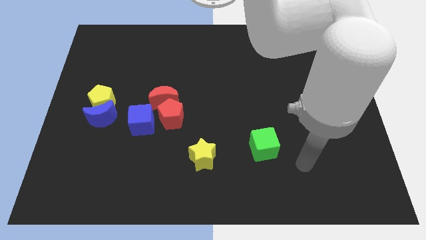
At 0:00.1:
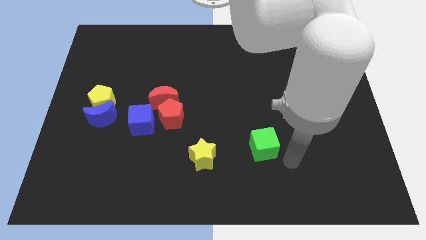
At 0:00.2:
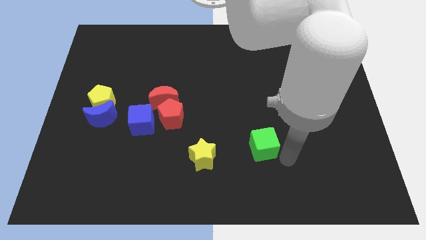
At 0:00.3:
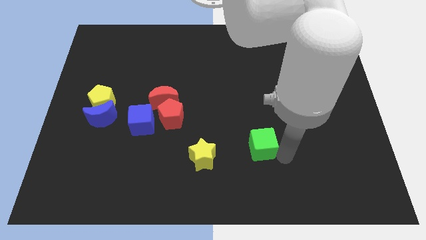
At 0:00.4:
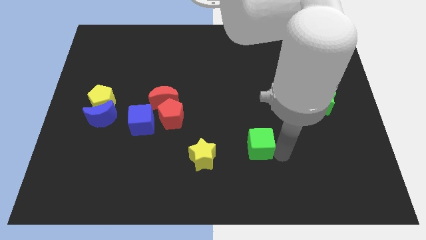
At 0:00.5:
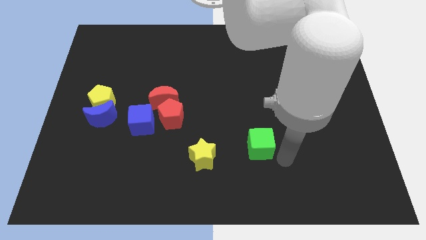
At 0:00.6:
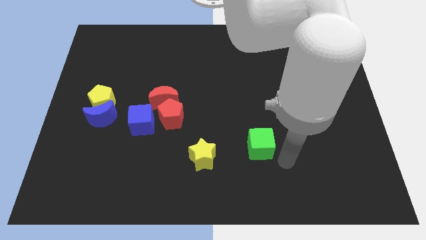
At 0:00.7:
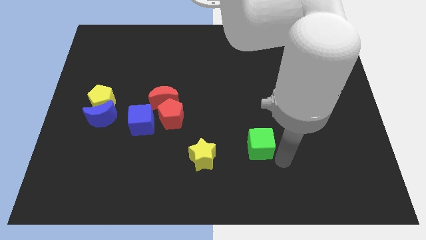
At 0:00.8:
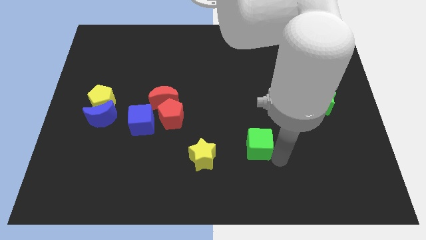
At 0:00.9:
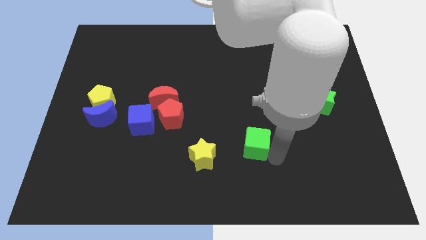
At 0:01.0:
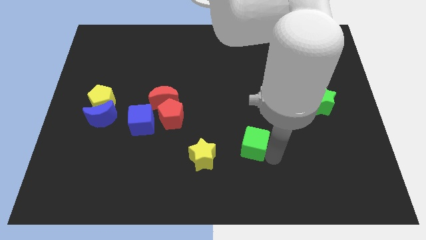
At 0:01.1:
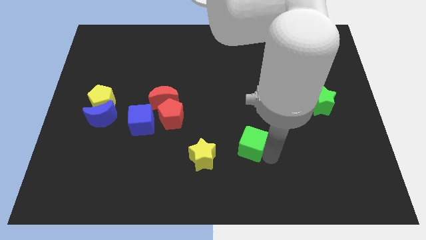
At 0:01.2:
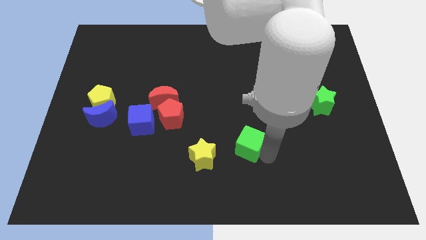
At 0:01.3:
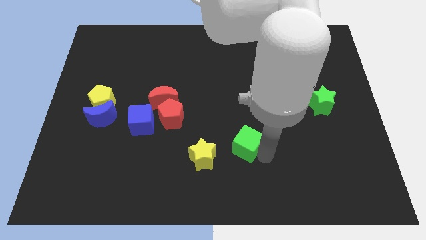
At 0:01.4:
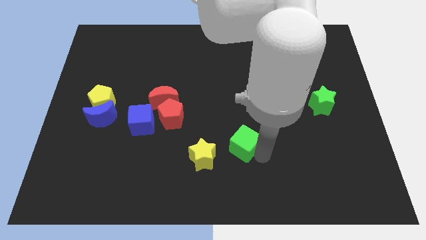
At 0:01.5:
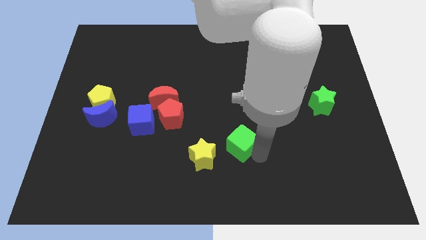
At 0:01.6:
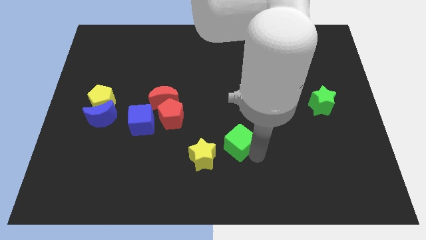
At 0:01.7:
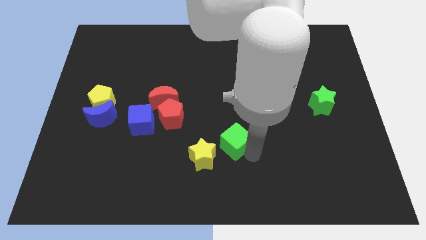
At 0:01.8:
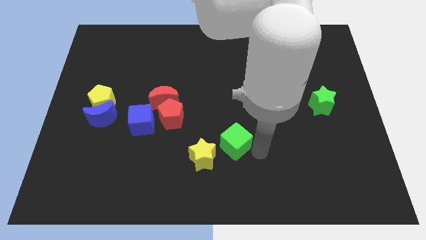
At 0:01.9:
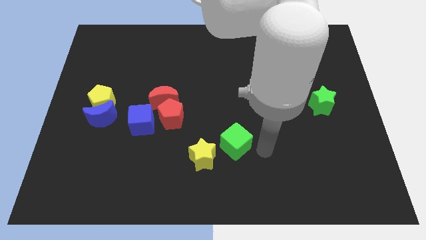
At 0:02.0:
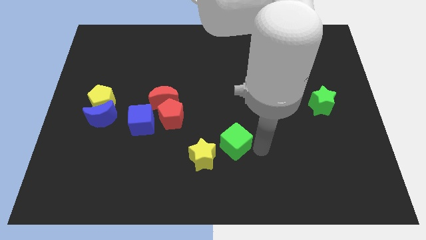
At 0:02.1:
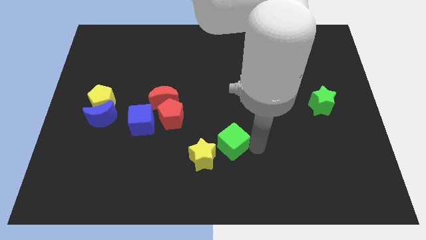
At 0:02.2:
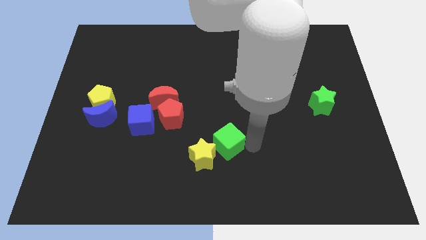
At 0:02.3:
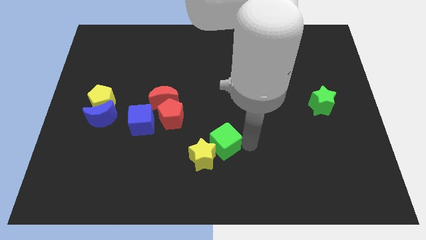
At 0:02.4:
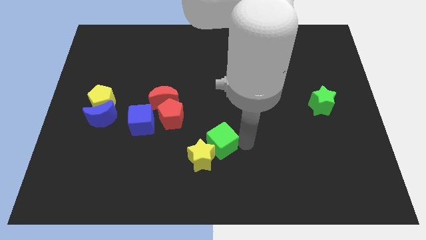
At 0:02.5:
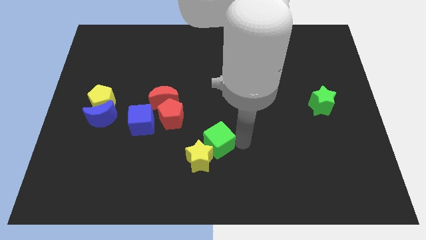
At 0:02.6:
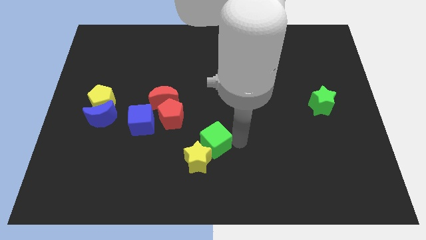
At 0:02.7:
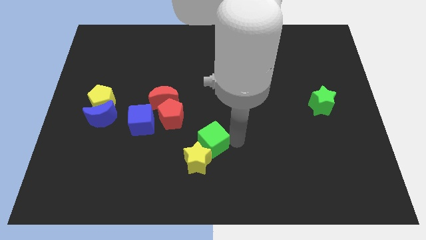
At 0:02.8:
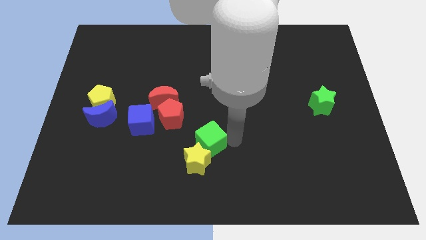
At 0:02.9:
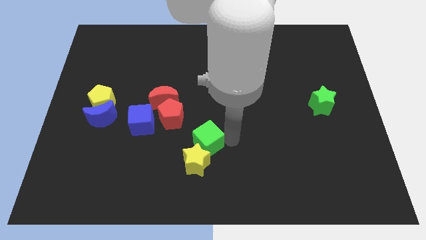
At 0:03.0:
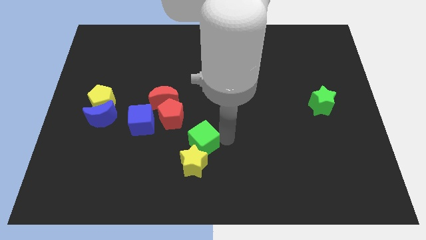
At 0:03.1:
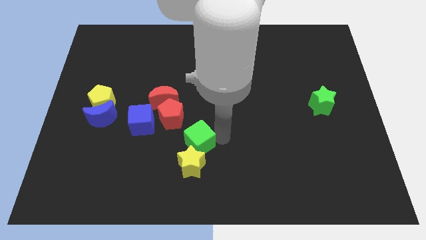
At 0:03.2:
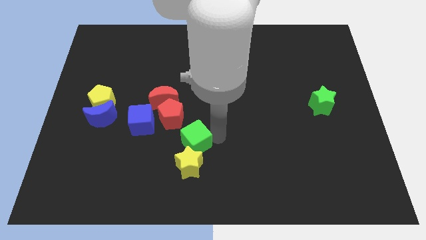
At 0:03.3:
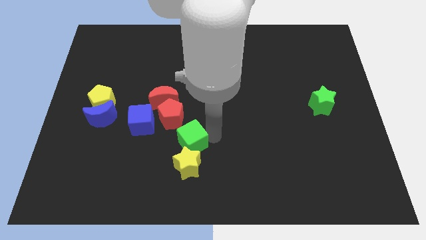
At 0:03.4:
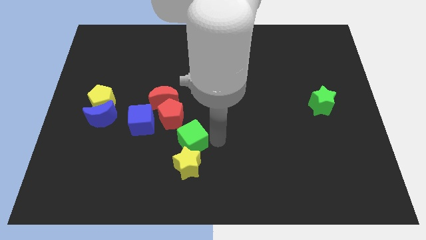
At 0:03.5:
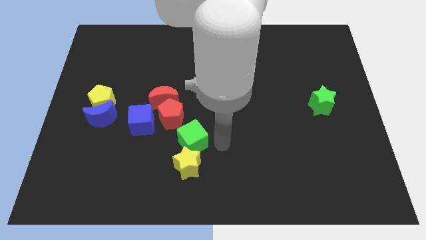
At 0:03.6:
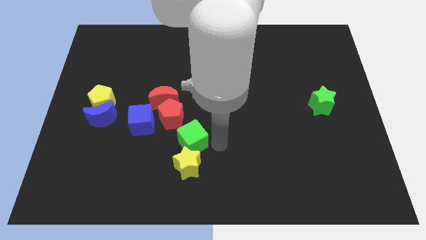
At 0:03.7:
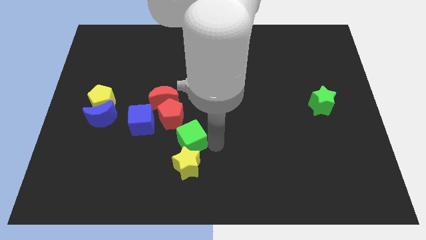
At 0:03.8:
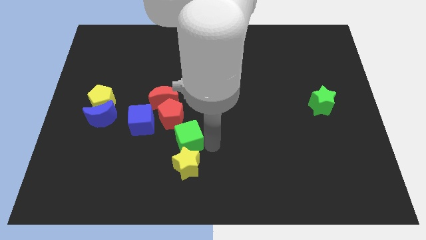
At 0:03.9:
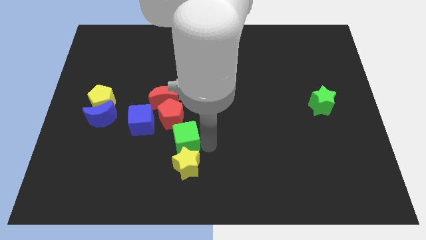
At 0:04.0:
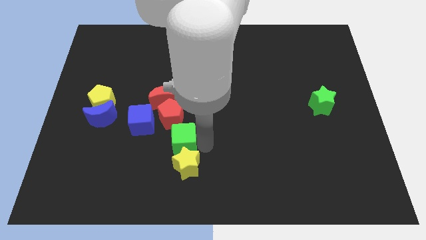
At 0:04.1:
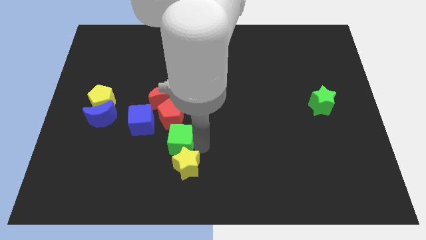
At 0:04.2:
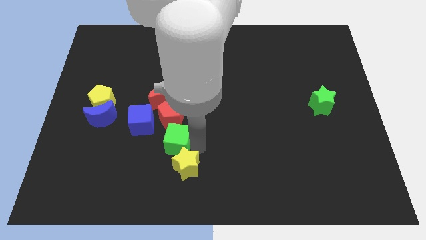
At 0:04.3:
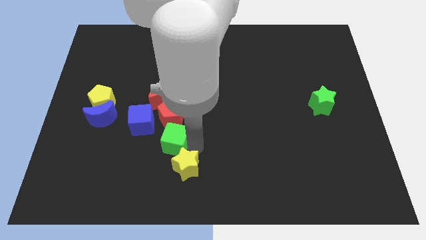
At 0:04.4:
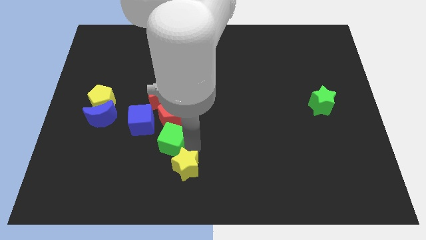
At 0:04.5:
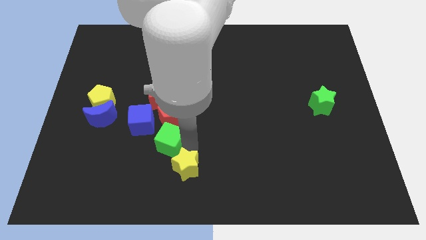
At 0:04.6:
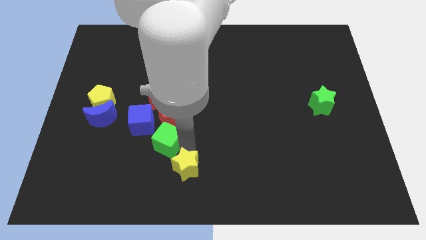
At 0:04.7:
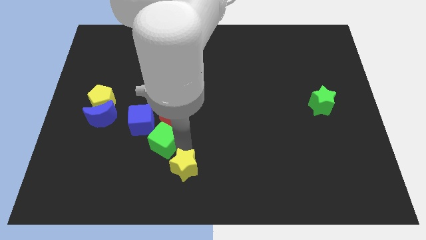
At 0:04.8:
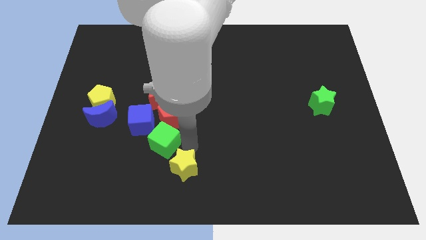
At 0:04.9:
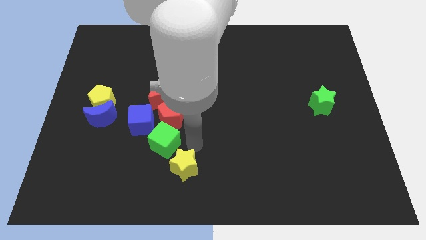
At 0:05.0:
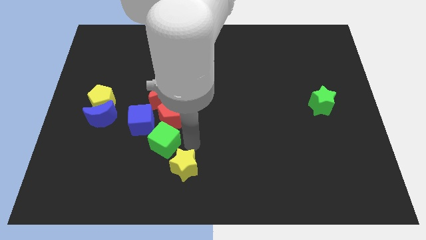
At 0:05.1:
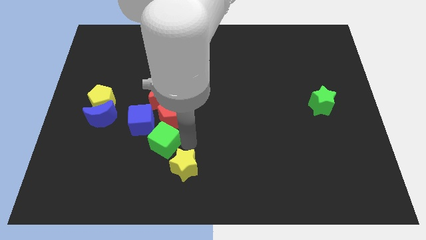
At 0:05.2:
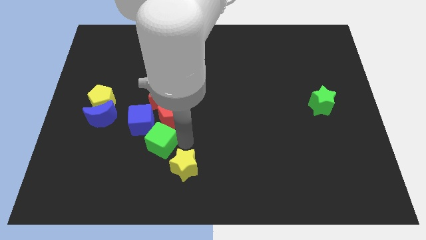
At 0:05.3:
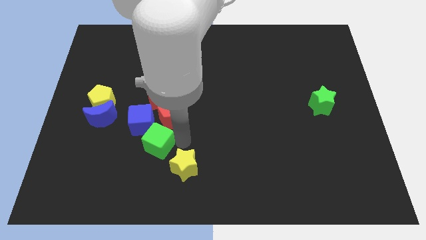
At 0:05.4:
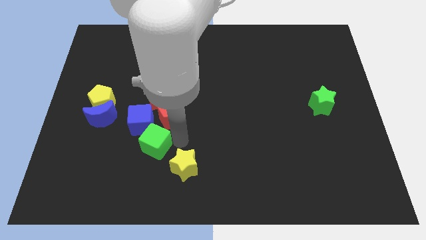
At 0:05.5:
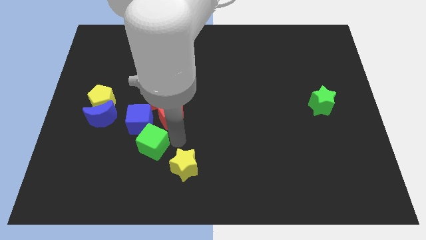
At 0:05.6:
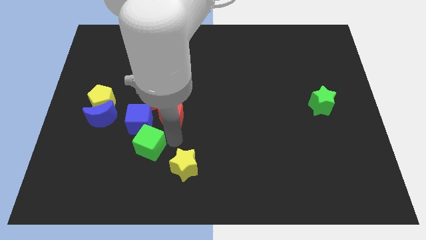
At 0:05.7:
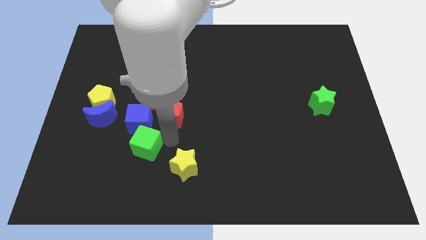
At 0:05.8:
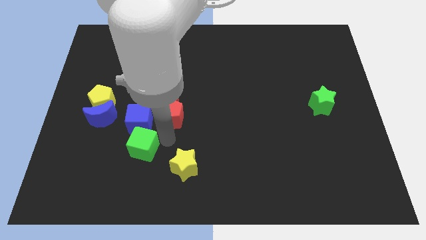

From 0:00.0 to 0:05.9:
move the green cube to the bottom right side of the blue moon
